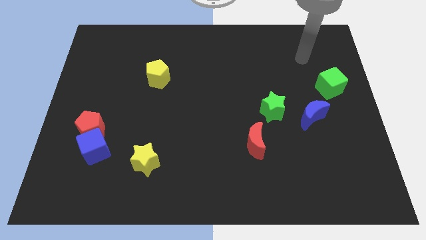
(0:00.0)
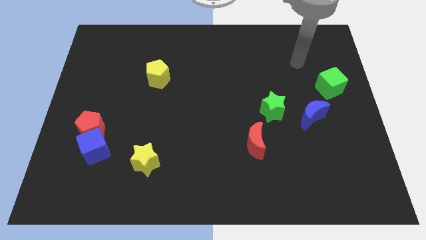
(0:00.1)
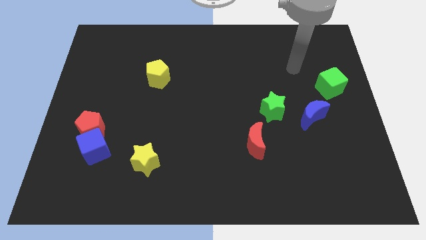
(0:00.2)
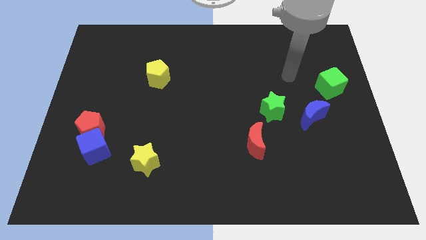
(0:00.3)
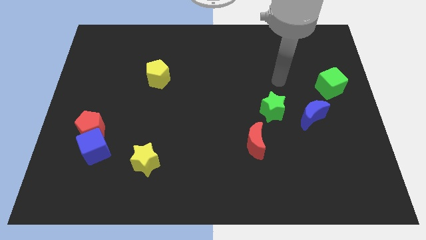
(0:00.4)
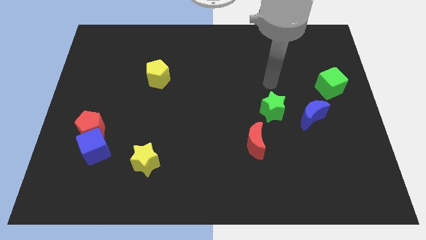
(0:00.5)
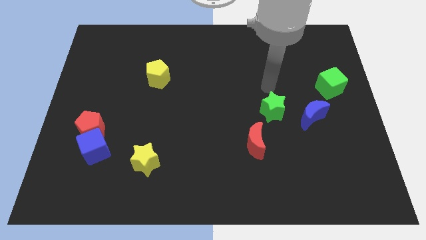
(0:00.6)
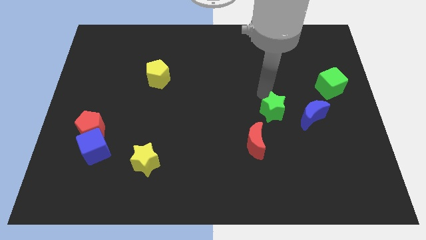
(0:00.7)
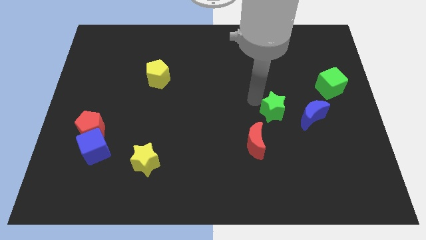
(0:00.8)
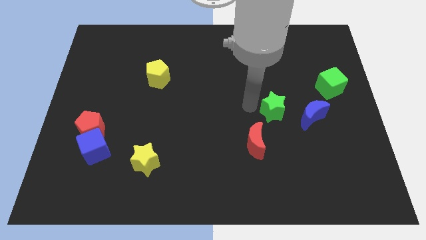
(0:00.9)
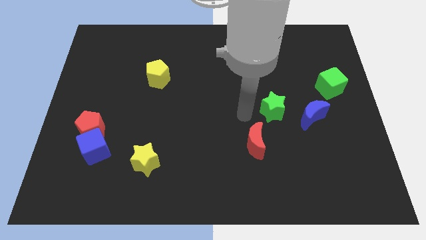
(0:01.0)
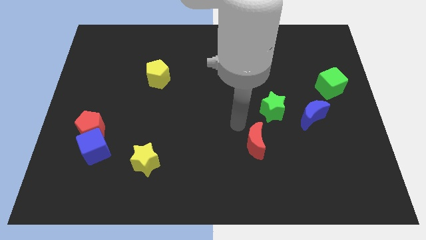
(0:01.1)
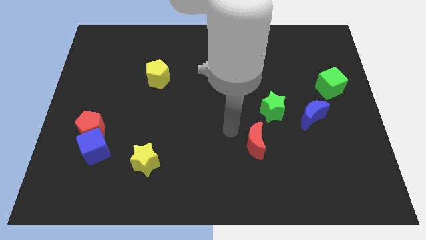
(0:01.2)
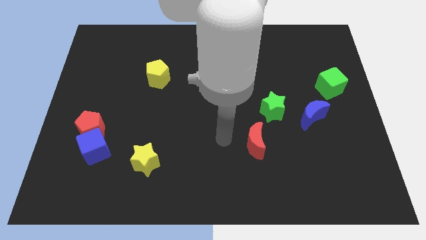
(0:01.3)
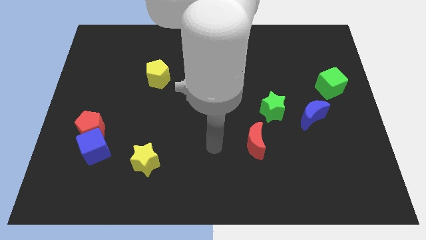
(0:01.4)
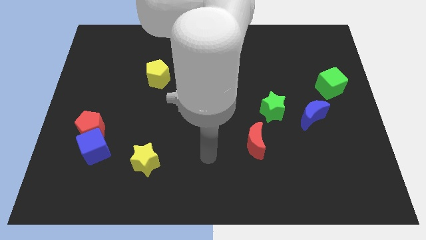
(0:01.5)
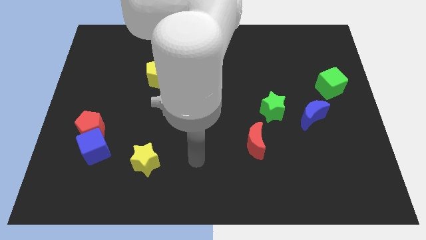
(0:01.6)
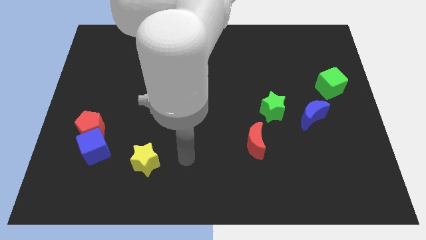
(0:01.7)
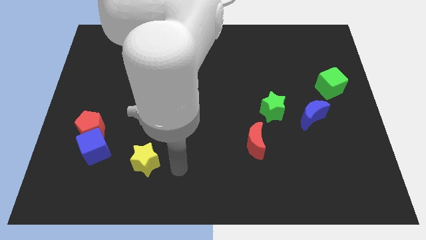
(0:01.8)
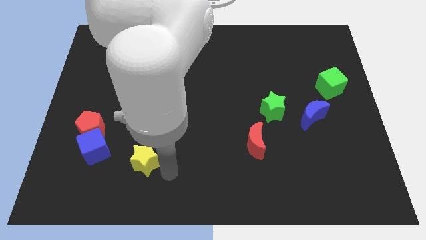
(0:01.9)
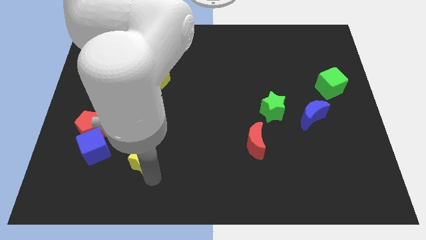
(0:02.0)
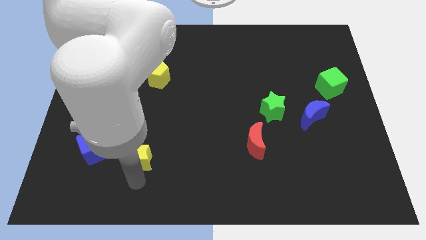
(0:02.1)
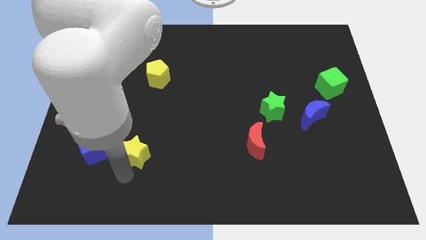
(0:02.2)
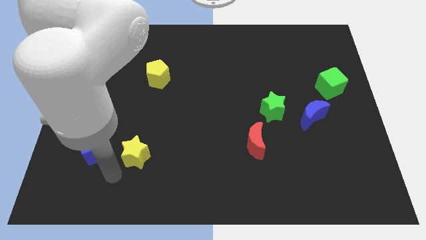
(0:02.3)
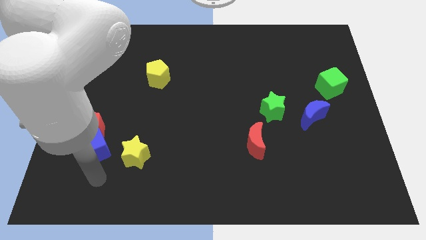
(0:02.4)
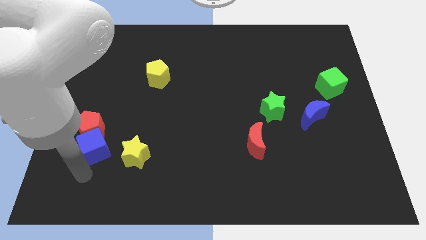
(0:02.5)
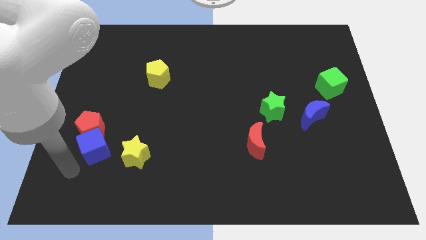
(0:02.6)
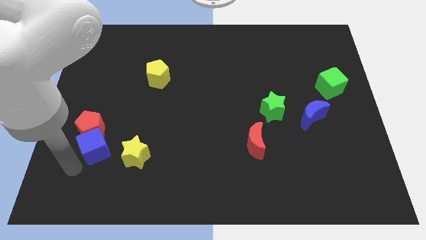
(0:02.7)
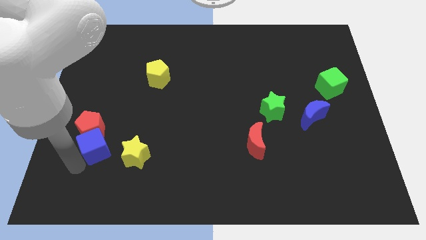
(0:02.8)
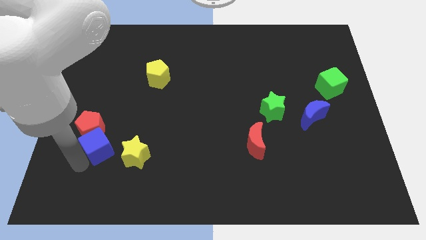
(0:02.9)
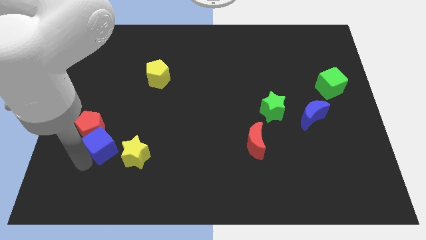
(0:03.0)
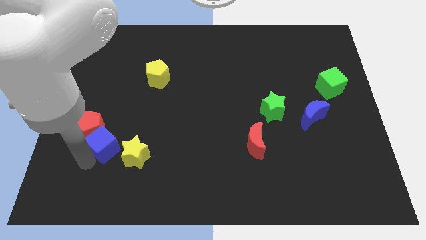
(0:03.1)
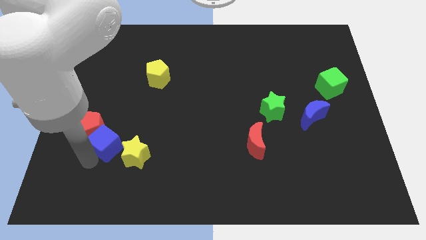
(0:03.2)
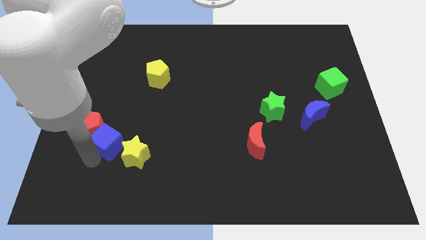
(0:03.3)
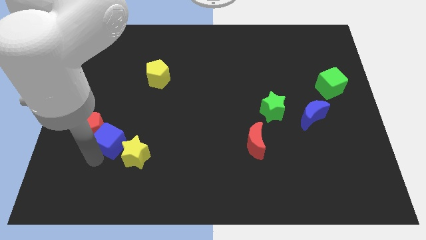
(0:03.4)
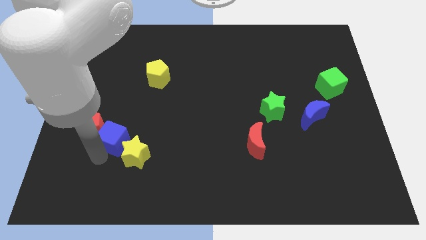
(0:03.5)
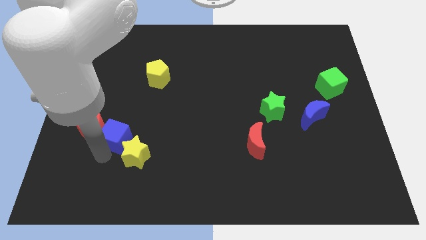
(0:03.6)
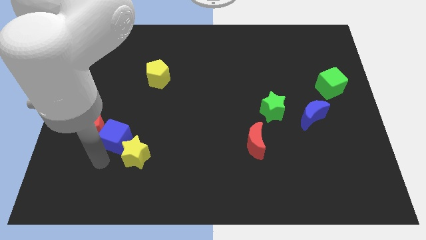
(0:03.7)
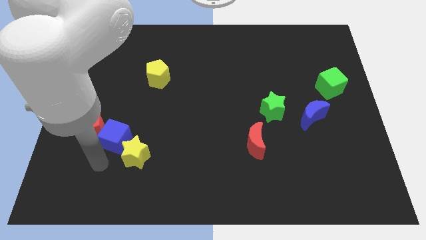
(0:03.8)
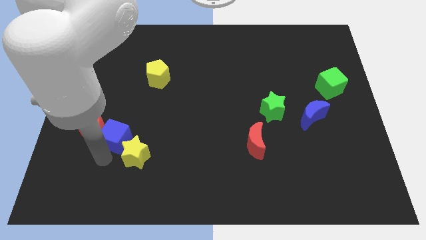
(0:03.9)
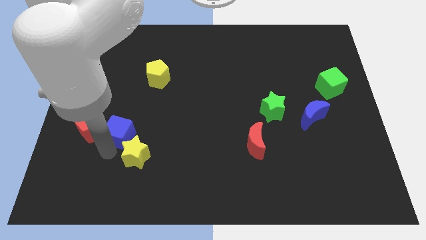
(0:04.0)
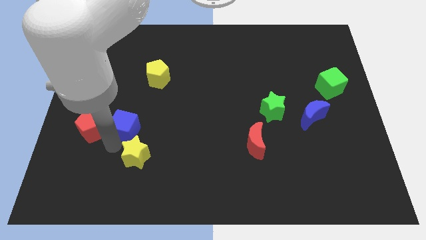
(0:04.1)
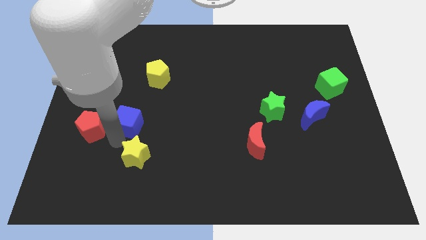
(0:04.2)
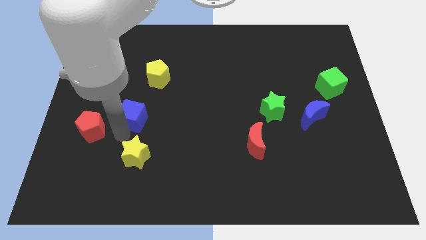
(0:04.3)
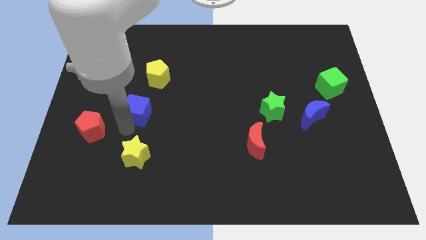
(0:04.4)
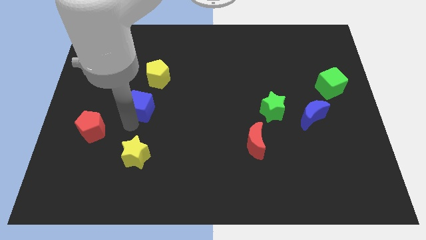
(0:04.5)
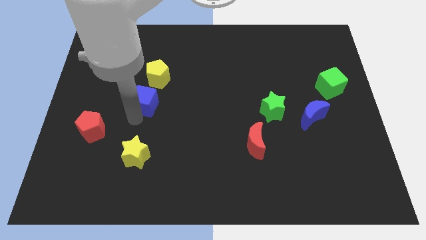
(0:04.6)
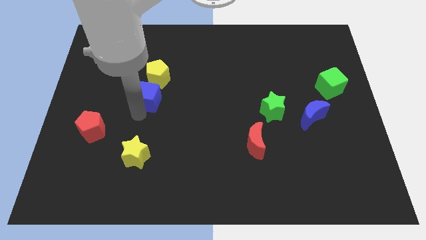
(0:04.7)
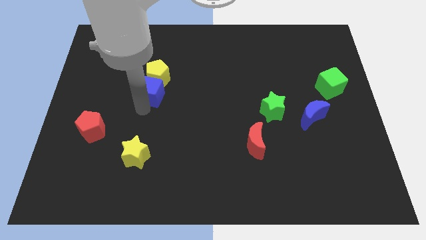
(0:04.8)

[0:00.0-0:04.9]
move the blue cube next to the yellow pentagon

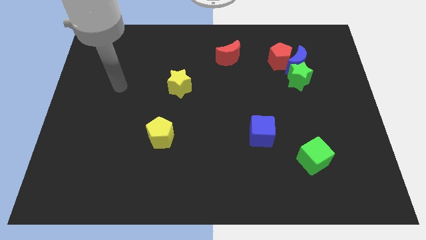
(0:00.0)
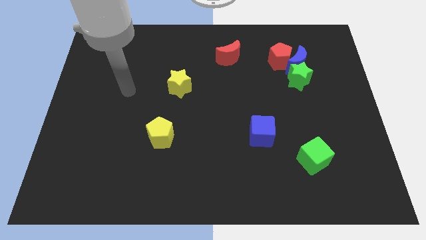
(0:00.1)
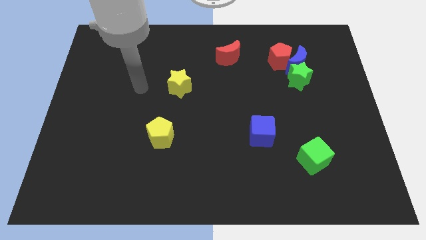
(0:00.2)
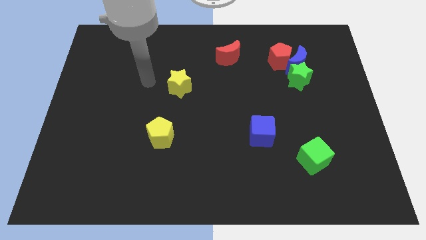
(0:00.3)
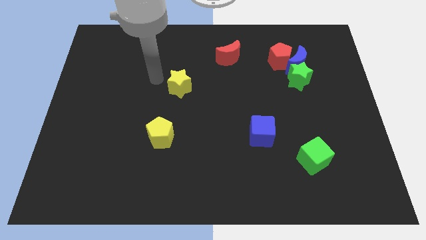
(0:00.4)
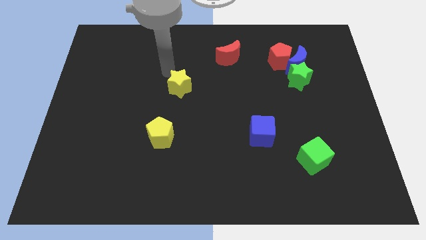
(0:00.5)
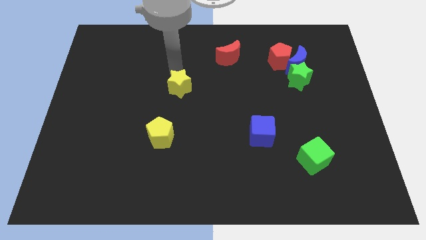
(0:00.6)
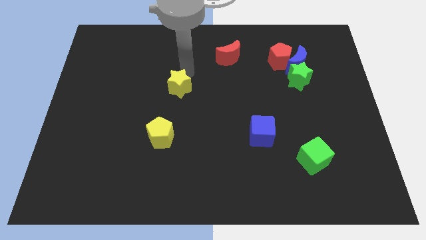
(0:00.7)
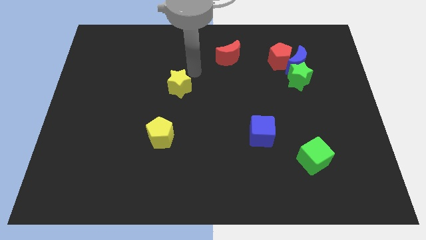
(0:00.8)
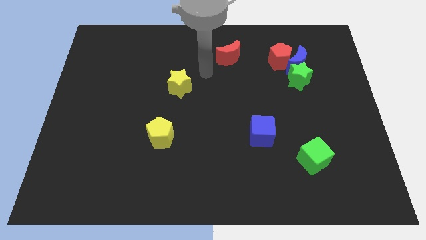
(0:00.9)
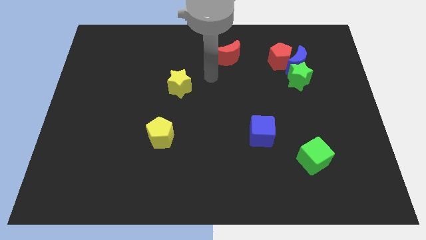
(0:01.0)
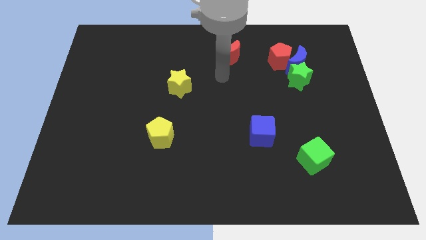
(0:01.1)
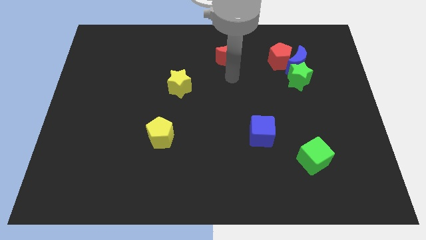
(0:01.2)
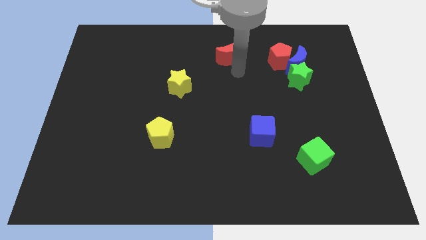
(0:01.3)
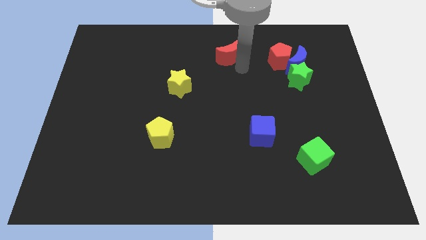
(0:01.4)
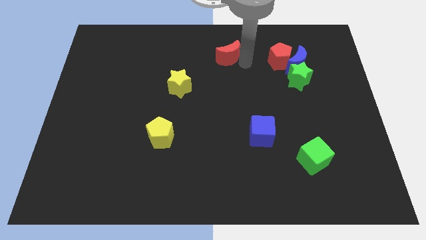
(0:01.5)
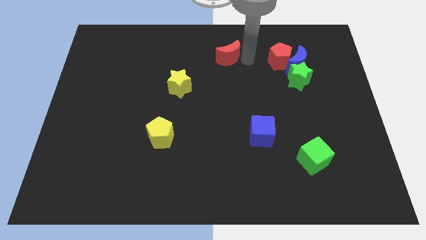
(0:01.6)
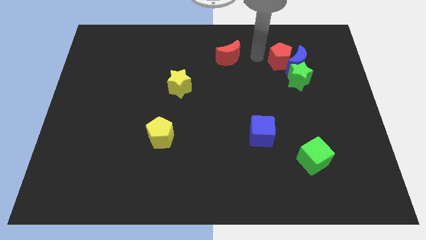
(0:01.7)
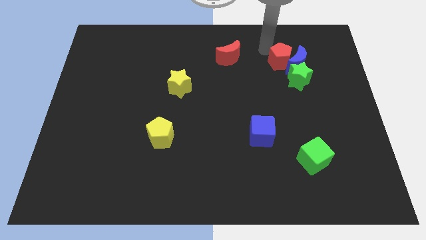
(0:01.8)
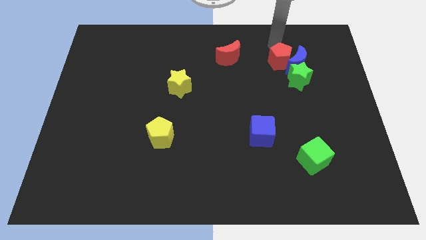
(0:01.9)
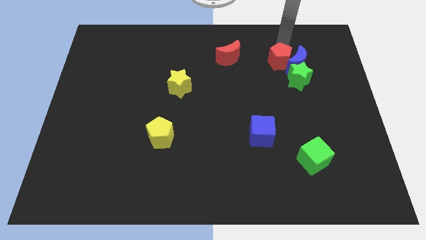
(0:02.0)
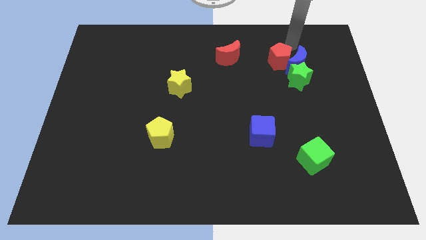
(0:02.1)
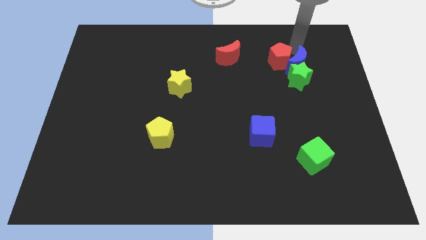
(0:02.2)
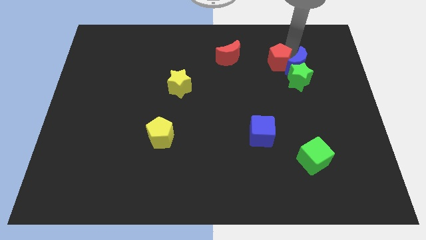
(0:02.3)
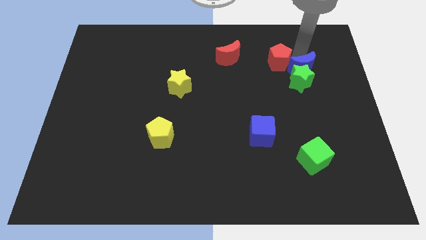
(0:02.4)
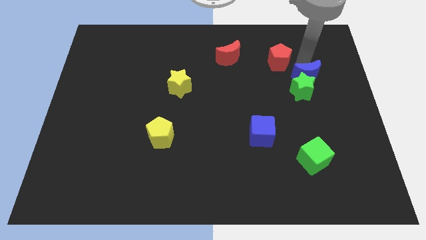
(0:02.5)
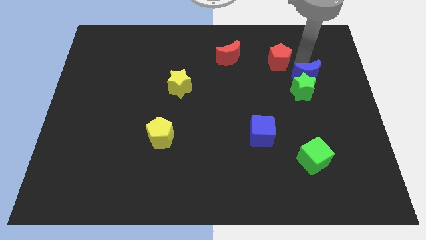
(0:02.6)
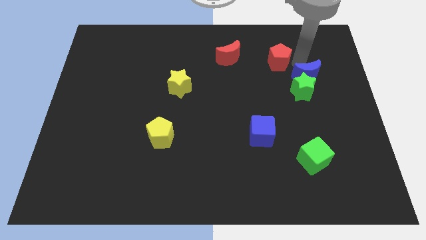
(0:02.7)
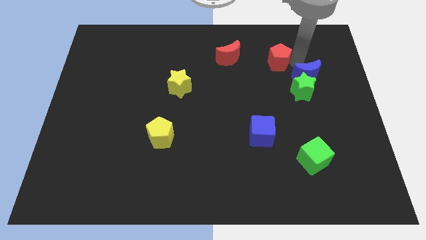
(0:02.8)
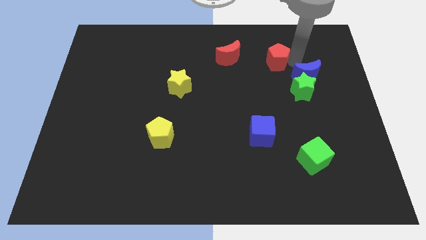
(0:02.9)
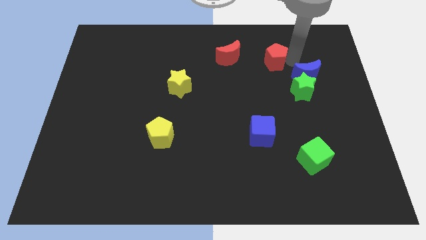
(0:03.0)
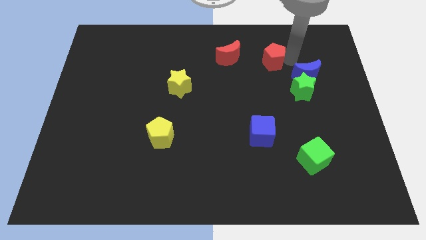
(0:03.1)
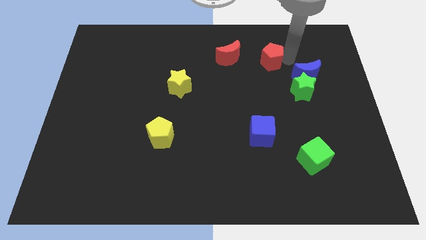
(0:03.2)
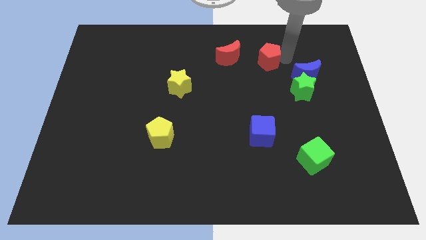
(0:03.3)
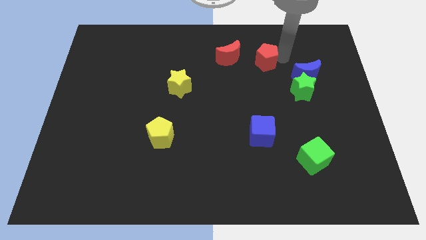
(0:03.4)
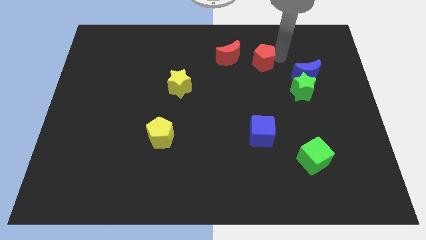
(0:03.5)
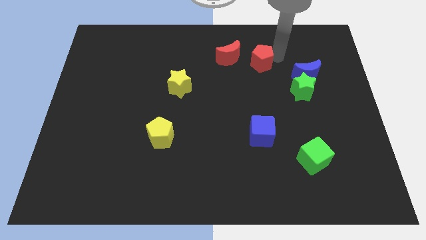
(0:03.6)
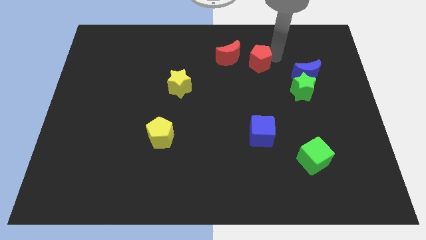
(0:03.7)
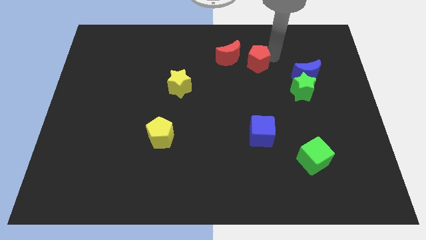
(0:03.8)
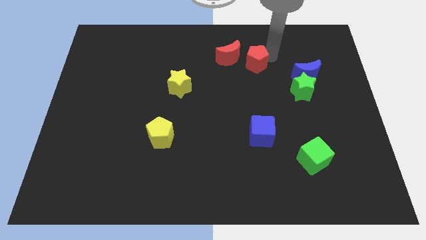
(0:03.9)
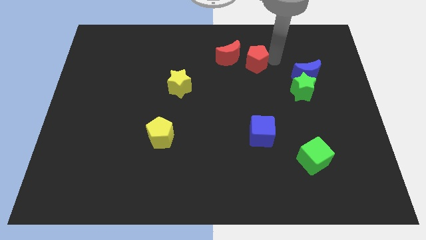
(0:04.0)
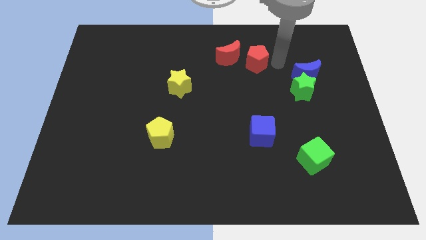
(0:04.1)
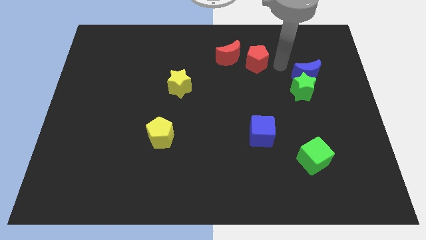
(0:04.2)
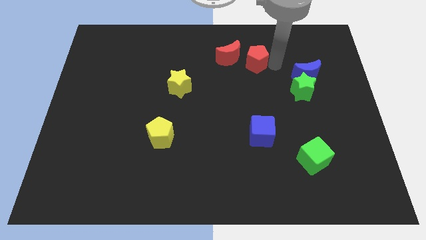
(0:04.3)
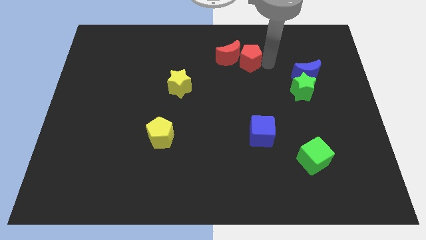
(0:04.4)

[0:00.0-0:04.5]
put the red pentagon towards the red moon
